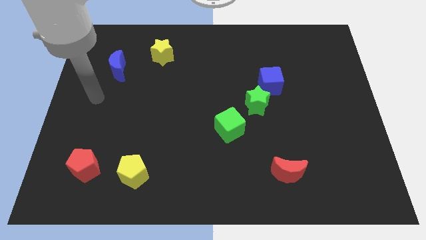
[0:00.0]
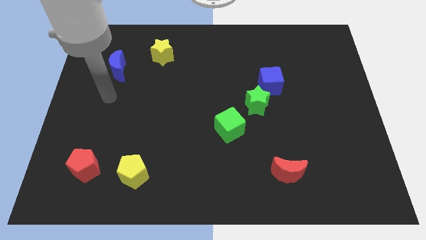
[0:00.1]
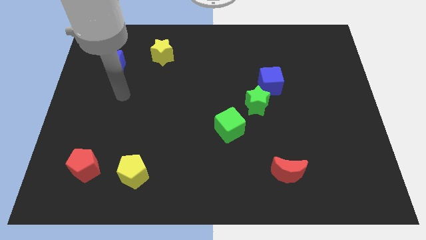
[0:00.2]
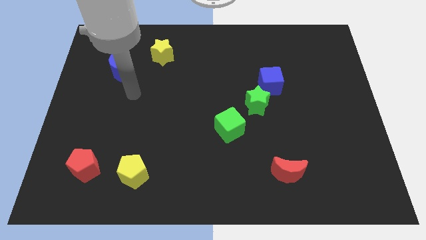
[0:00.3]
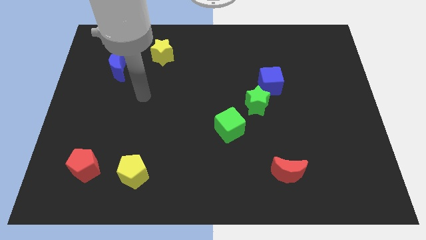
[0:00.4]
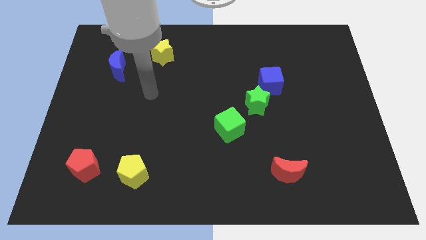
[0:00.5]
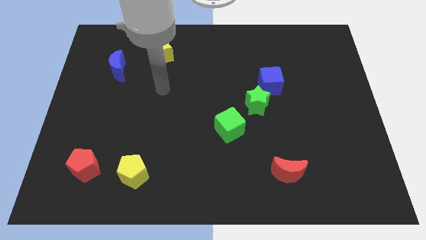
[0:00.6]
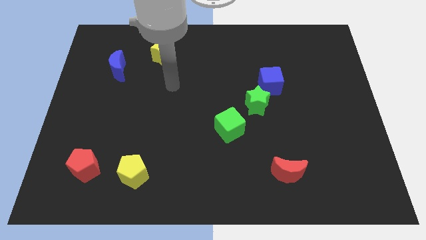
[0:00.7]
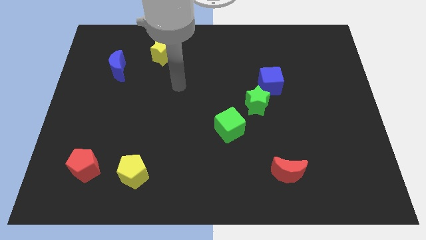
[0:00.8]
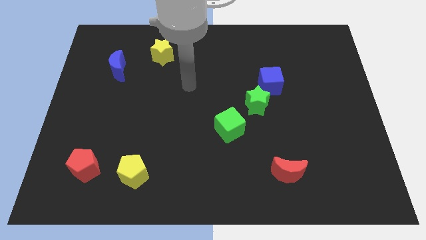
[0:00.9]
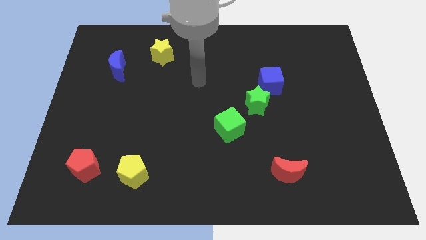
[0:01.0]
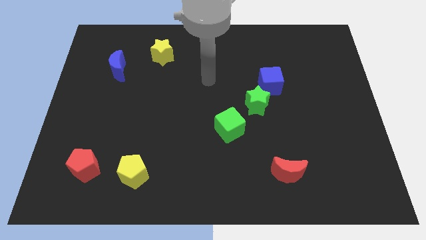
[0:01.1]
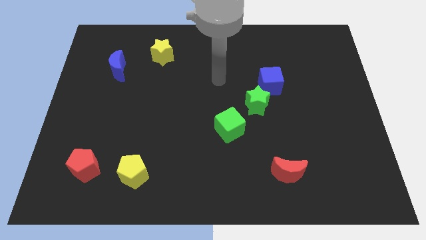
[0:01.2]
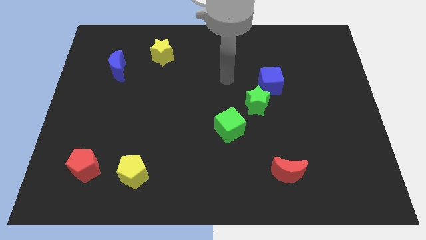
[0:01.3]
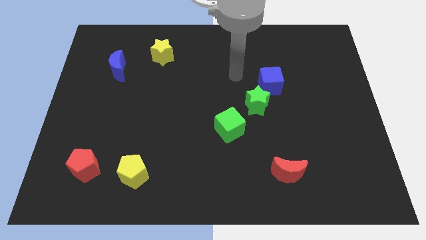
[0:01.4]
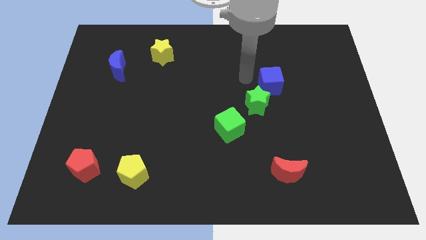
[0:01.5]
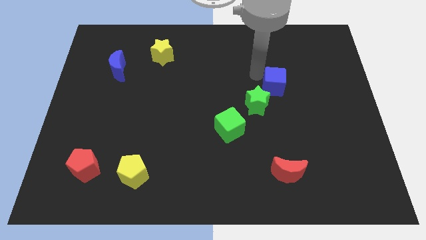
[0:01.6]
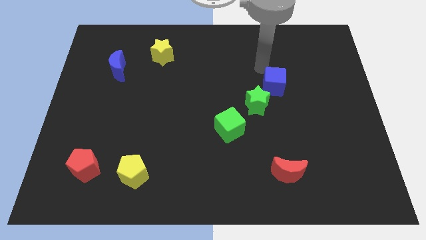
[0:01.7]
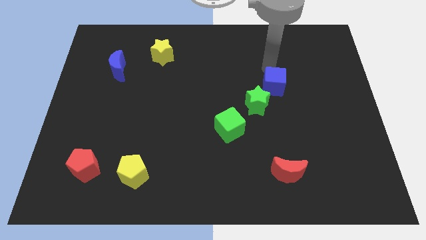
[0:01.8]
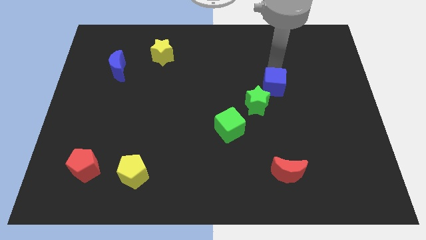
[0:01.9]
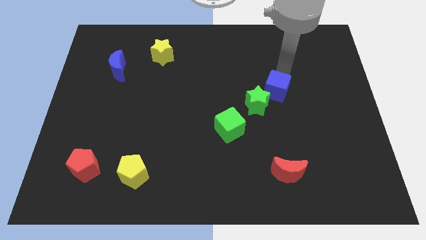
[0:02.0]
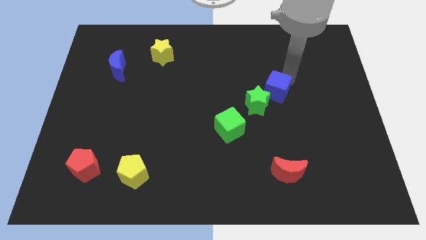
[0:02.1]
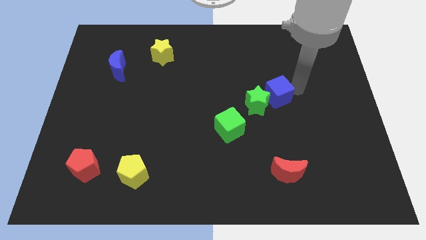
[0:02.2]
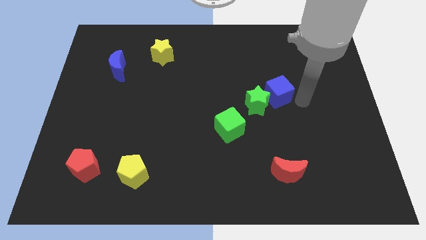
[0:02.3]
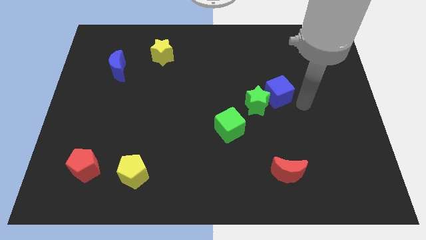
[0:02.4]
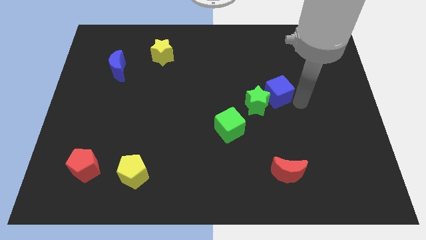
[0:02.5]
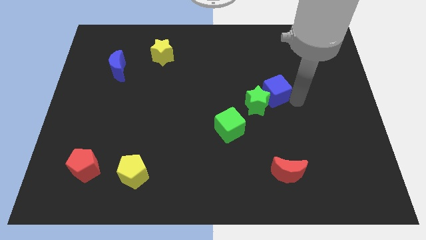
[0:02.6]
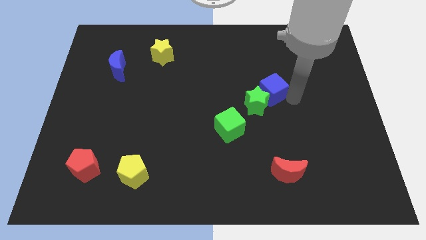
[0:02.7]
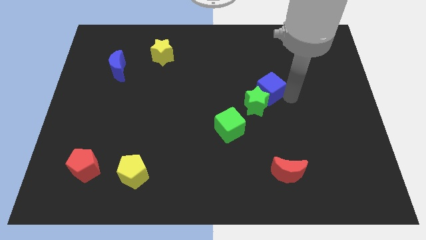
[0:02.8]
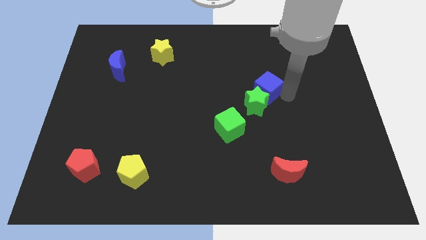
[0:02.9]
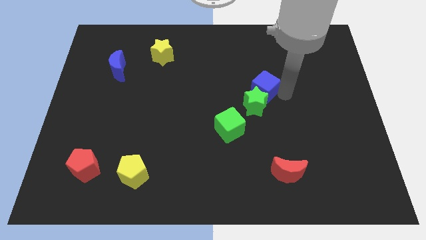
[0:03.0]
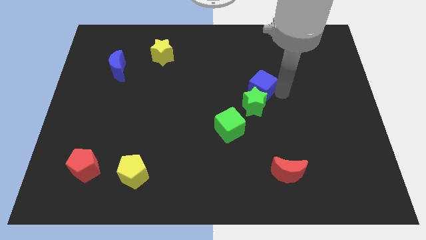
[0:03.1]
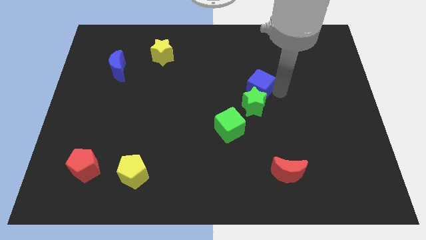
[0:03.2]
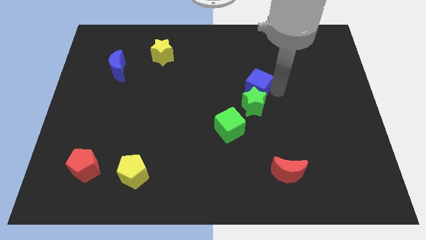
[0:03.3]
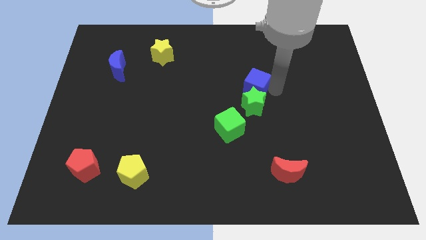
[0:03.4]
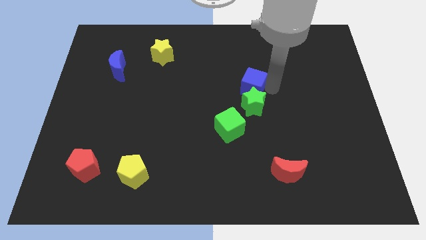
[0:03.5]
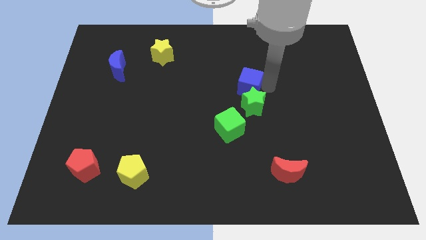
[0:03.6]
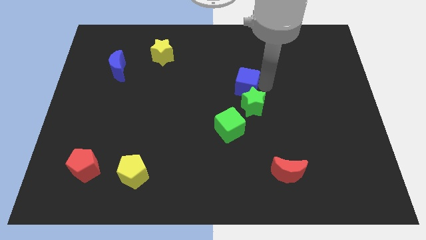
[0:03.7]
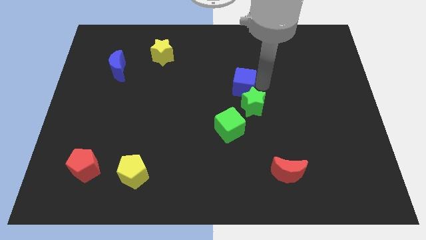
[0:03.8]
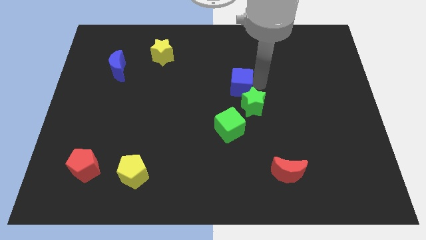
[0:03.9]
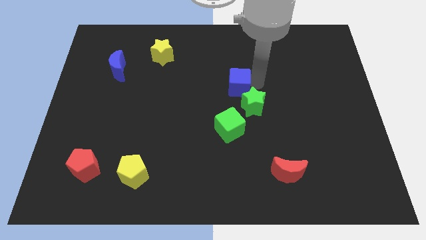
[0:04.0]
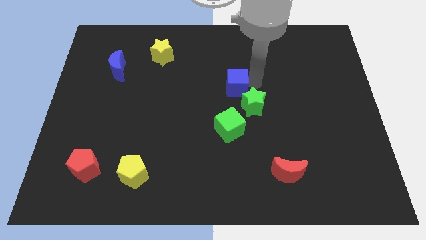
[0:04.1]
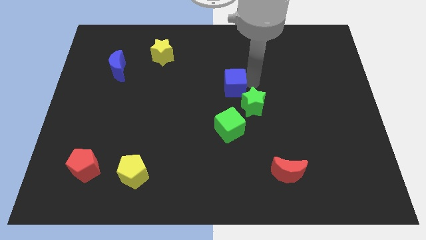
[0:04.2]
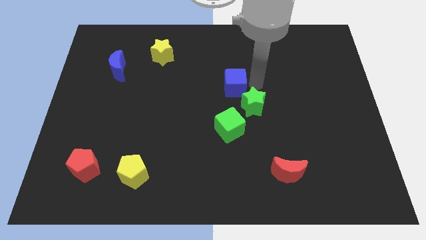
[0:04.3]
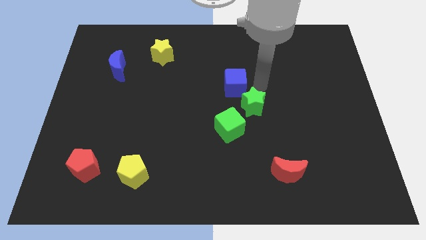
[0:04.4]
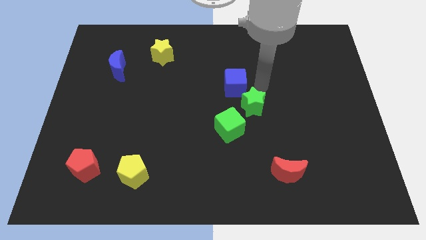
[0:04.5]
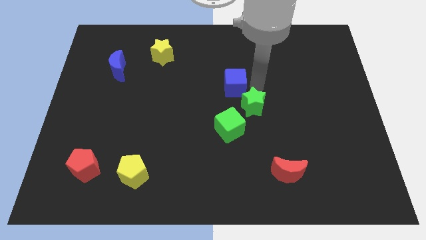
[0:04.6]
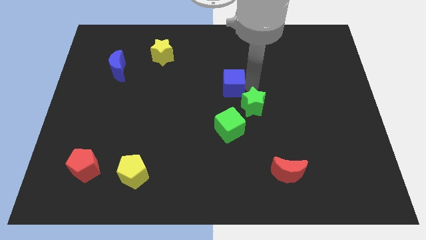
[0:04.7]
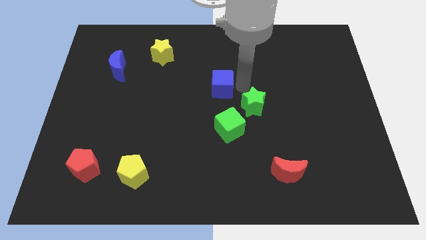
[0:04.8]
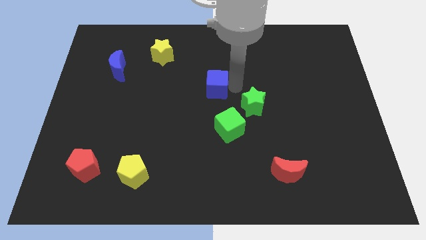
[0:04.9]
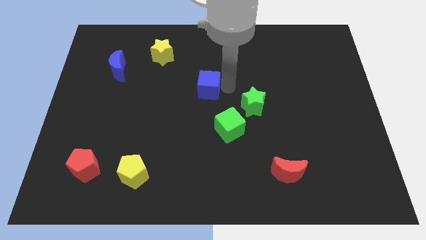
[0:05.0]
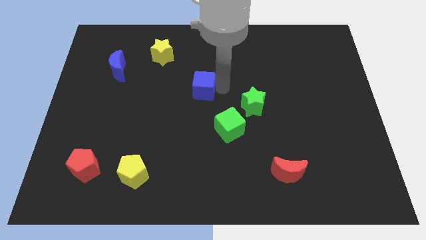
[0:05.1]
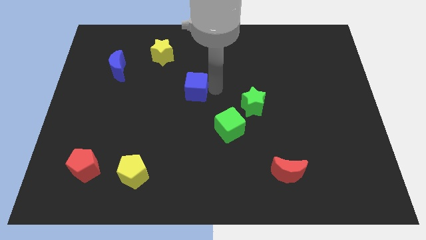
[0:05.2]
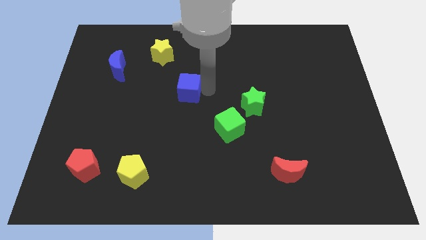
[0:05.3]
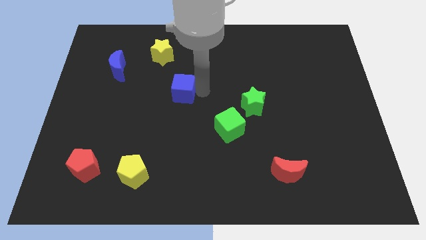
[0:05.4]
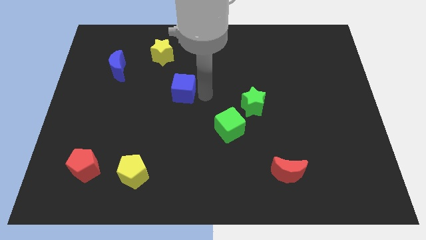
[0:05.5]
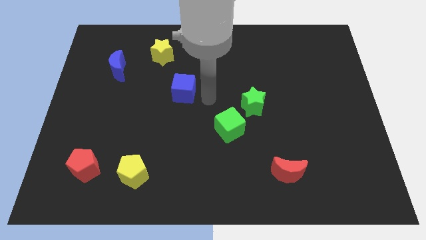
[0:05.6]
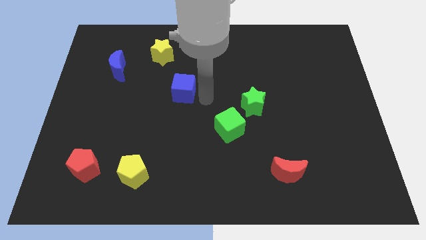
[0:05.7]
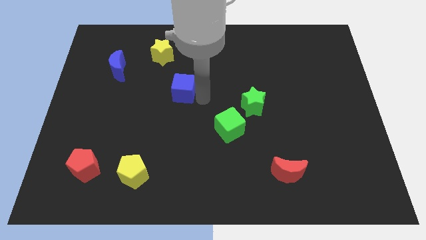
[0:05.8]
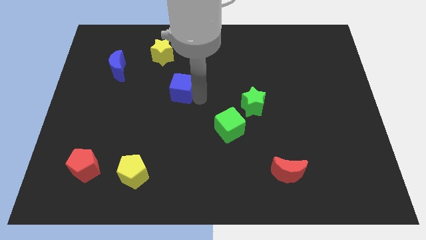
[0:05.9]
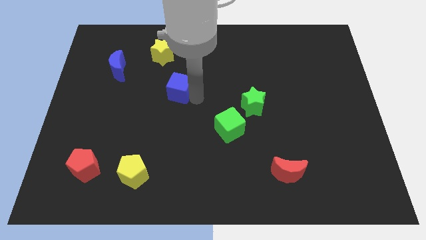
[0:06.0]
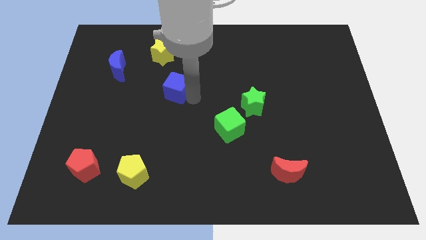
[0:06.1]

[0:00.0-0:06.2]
put the blue cube to the bottom side of the yellow star

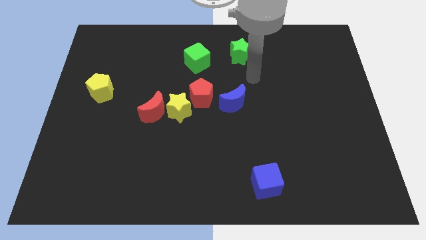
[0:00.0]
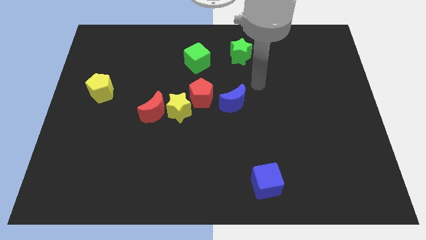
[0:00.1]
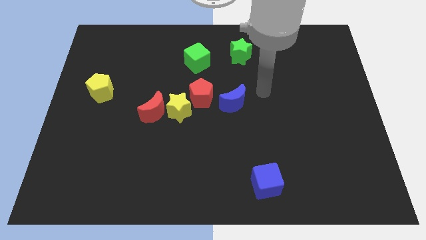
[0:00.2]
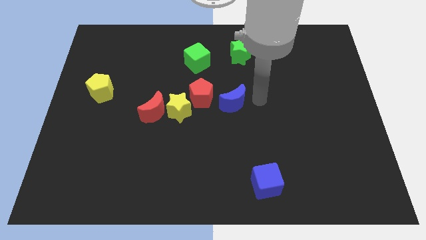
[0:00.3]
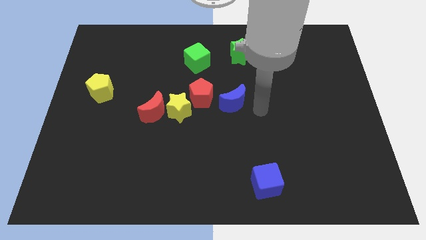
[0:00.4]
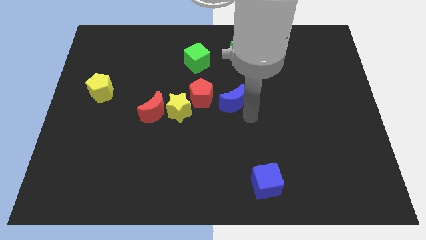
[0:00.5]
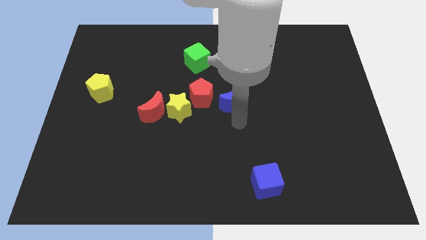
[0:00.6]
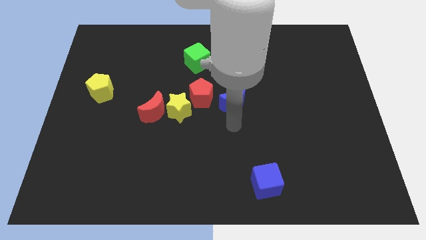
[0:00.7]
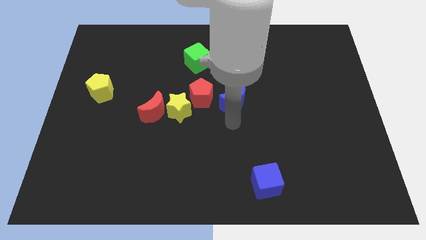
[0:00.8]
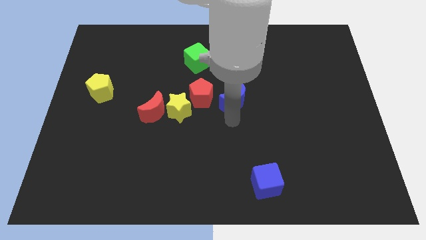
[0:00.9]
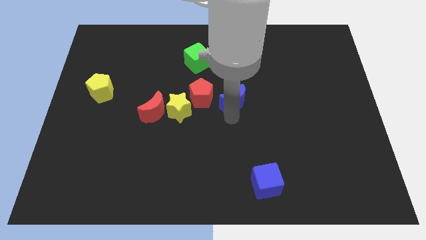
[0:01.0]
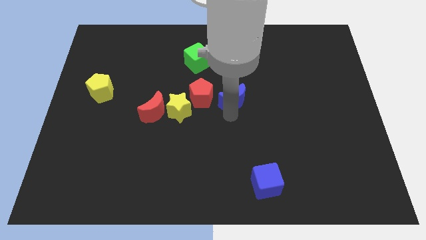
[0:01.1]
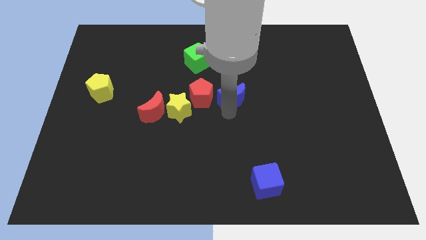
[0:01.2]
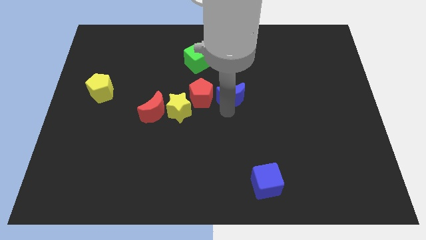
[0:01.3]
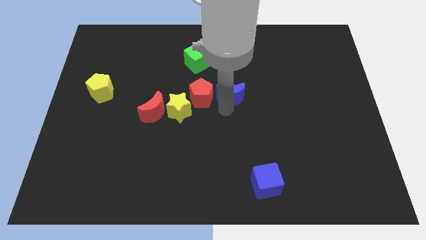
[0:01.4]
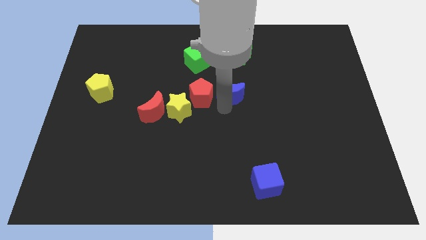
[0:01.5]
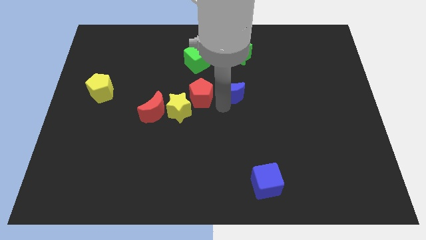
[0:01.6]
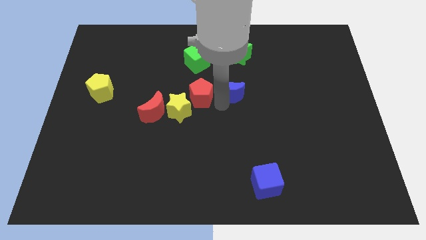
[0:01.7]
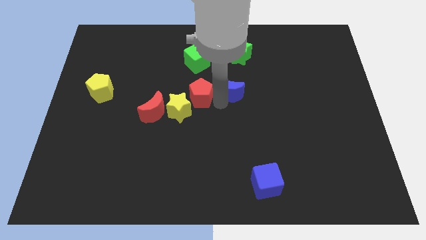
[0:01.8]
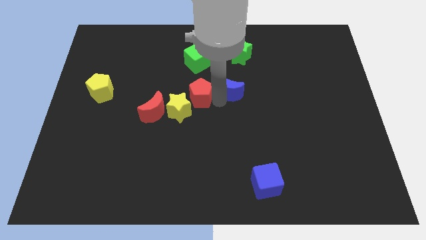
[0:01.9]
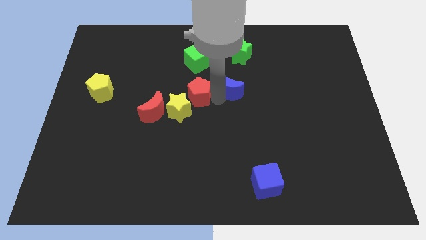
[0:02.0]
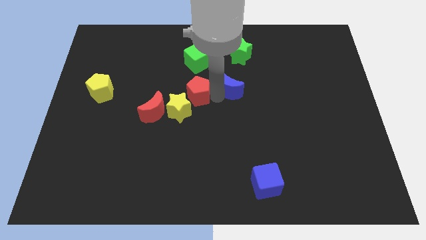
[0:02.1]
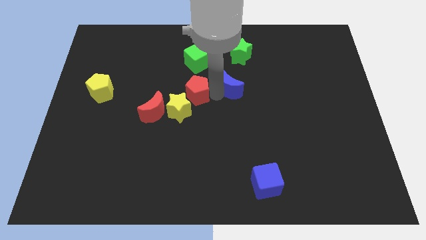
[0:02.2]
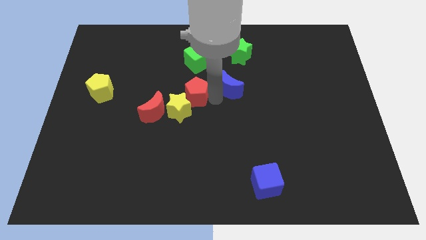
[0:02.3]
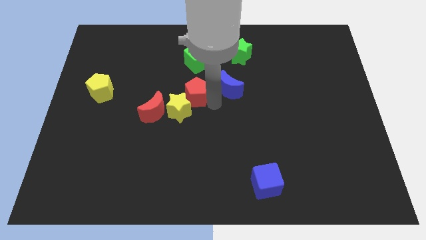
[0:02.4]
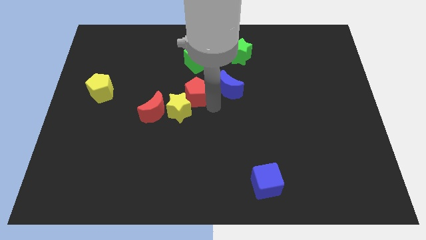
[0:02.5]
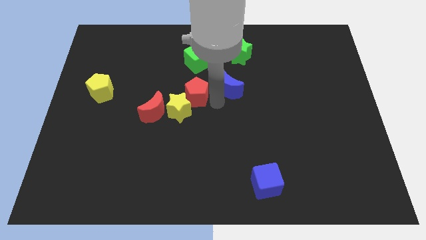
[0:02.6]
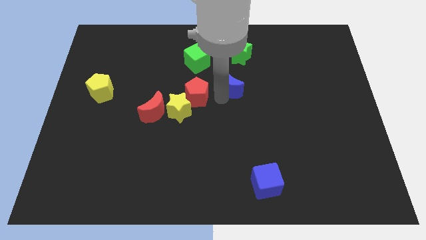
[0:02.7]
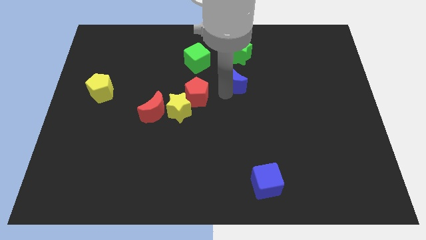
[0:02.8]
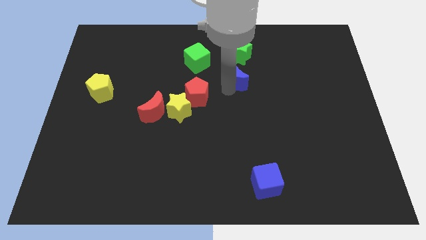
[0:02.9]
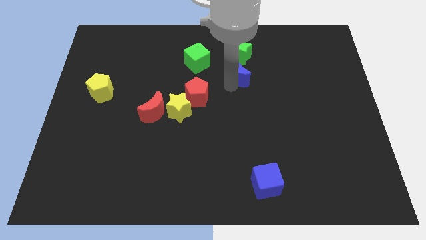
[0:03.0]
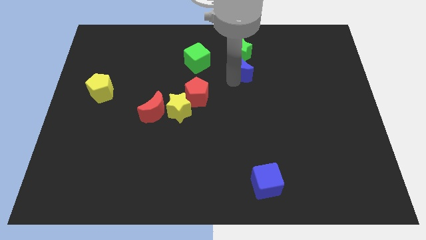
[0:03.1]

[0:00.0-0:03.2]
put the blue moon to the right of the green cube
